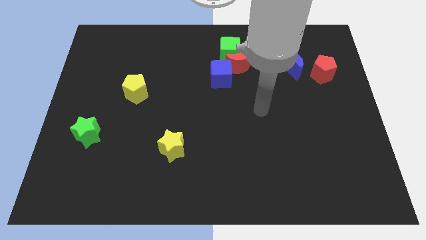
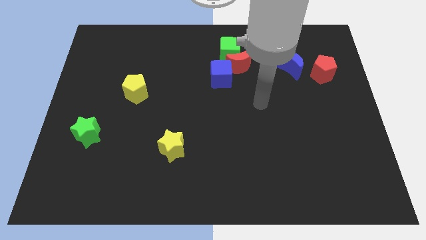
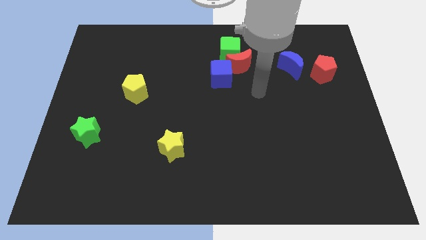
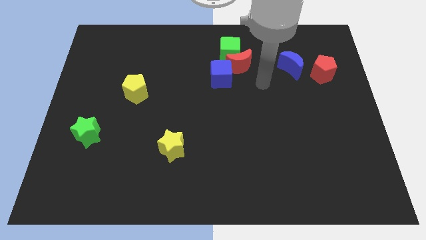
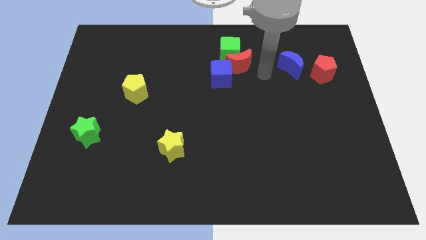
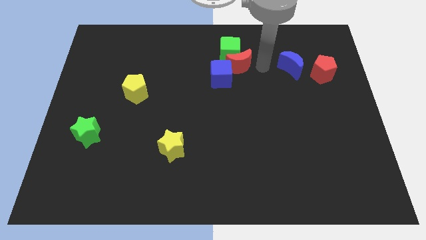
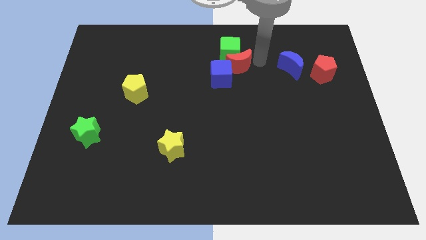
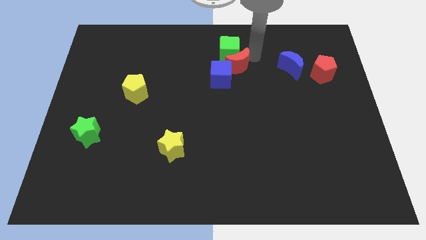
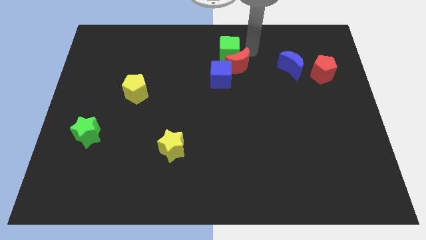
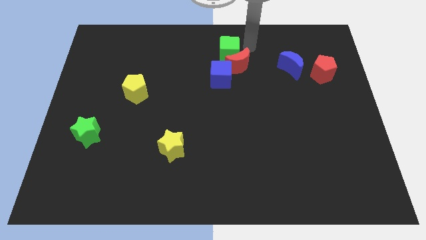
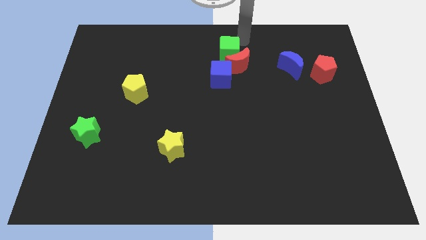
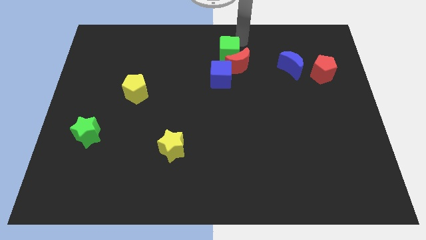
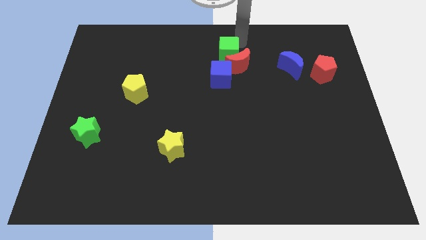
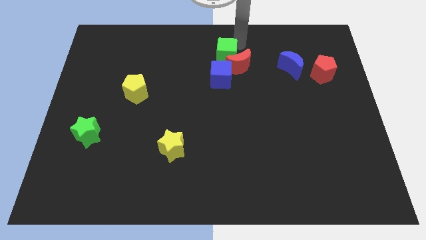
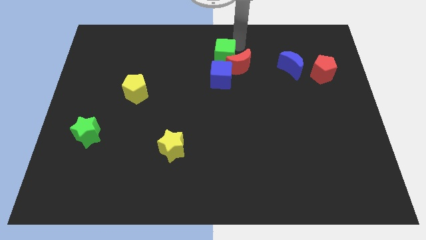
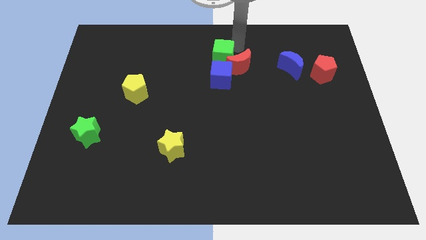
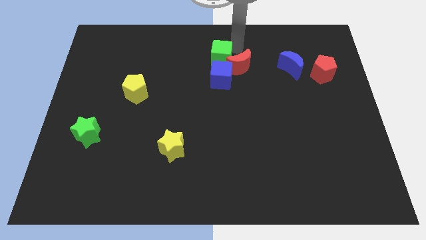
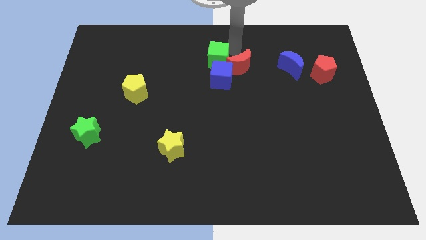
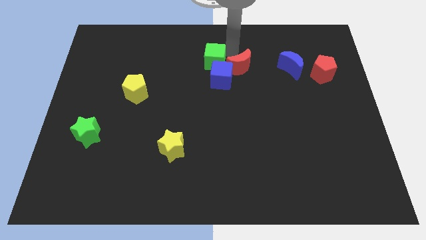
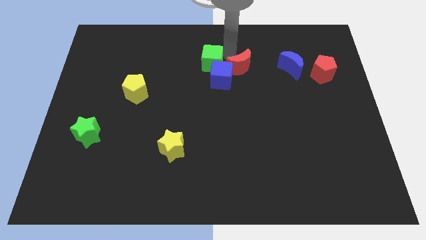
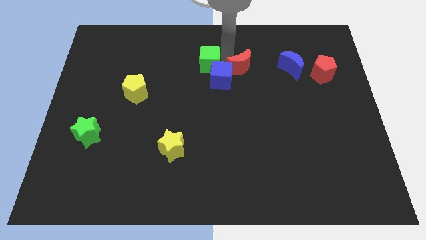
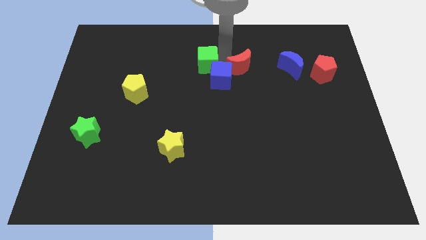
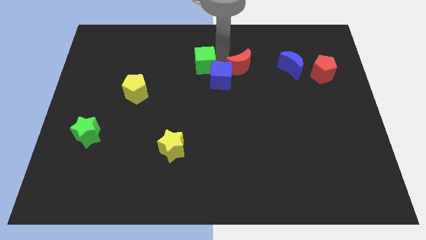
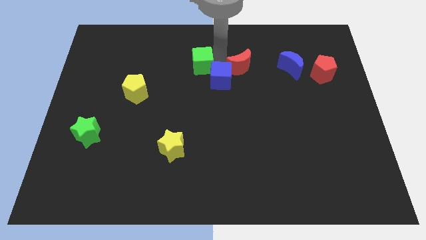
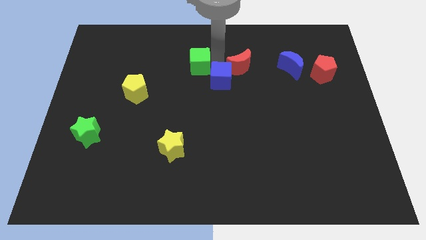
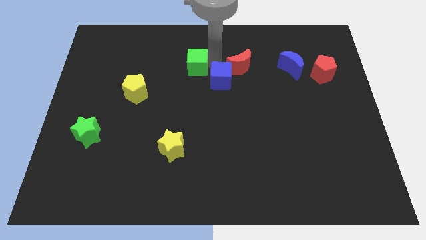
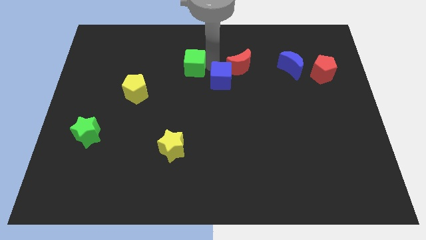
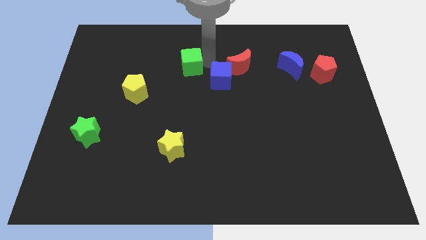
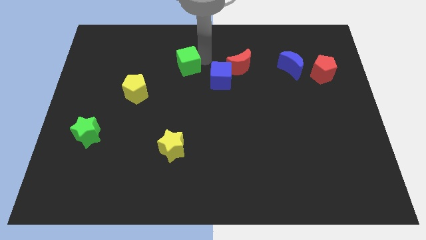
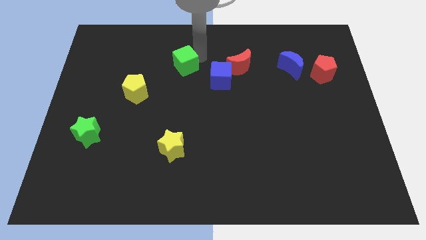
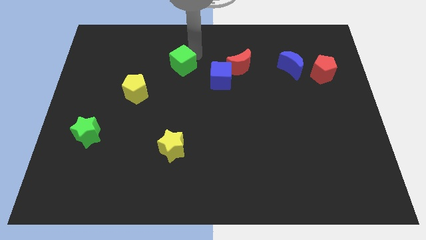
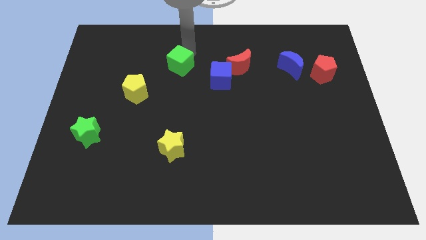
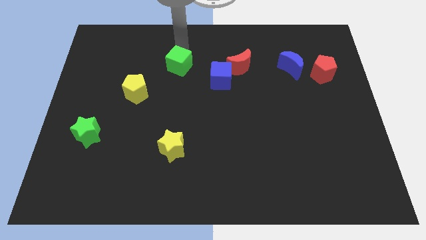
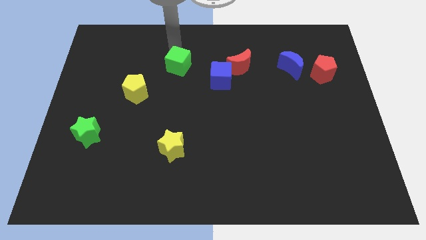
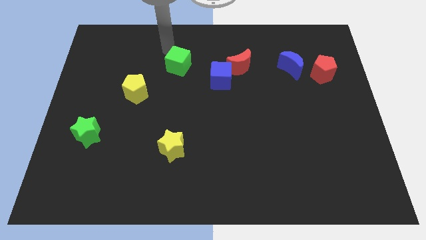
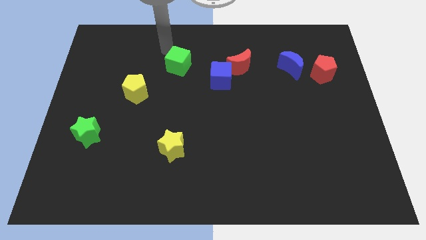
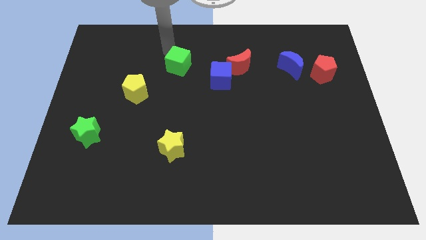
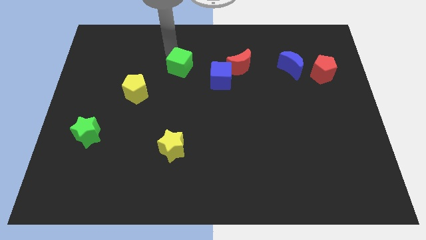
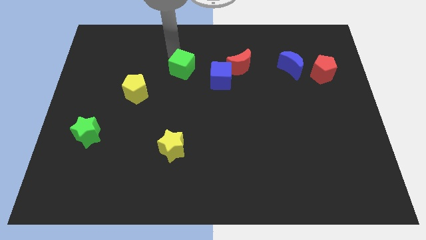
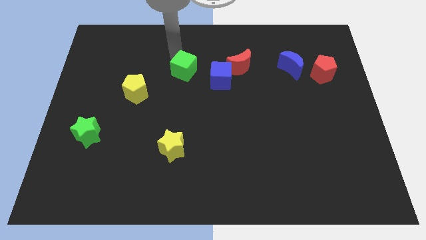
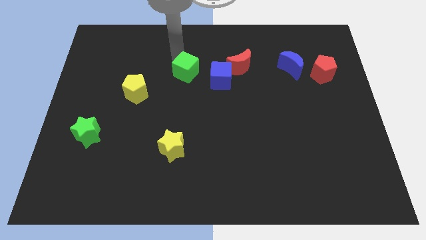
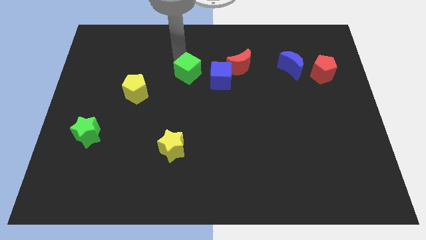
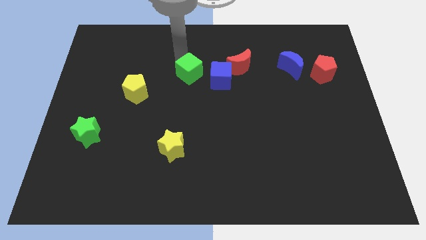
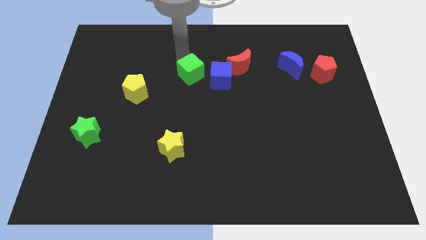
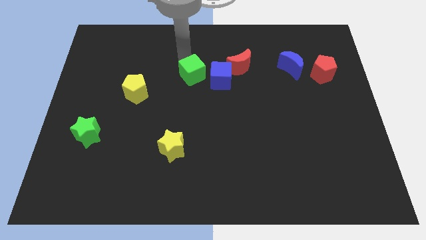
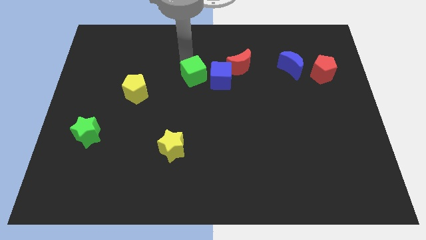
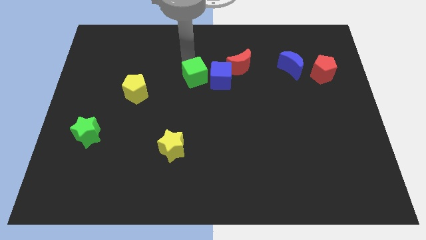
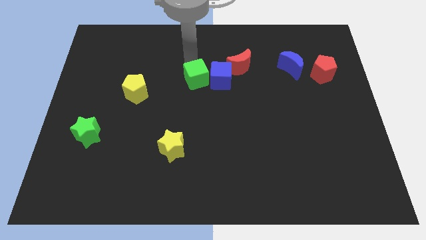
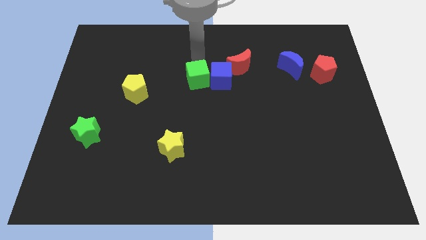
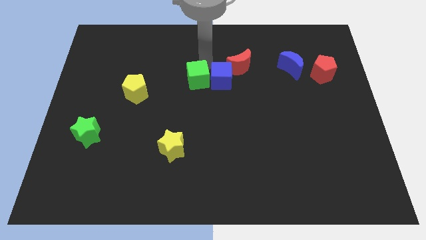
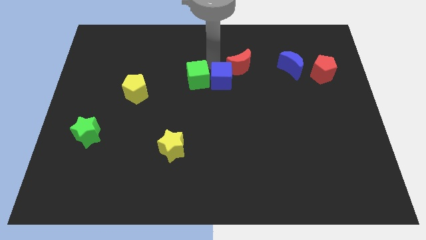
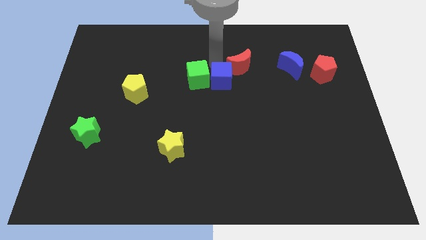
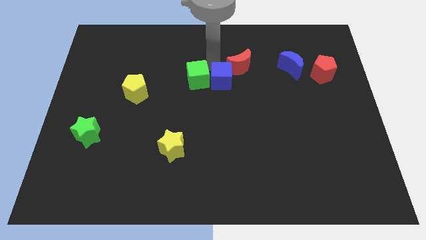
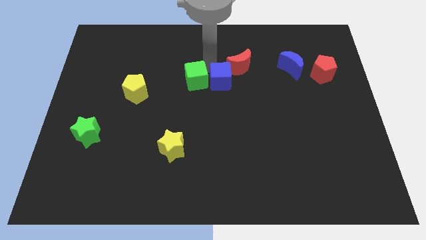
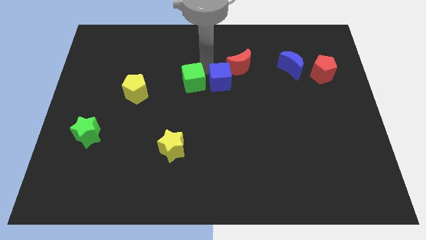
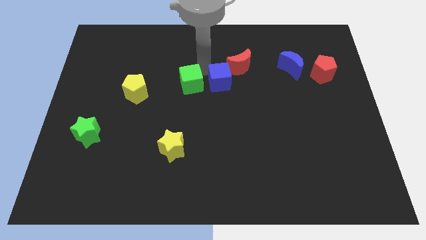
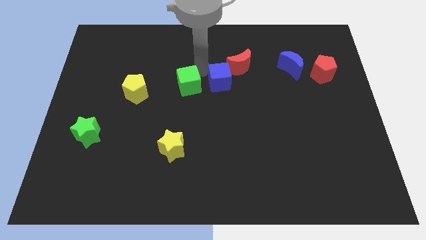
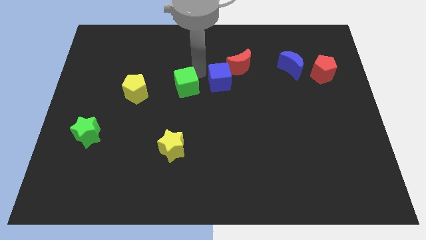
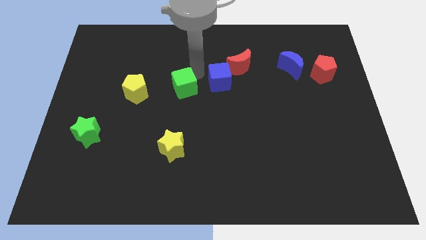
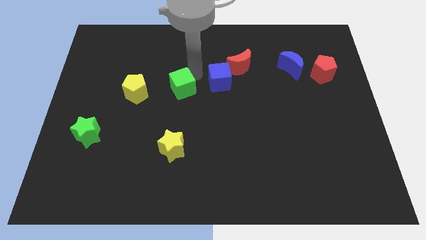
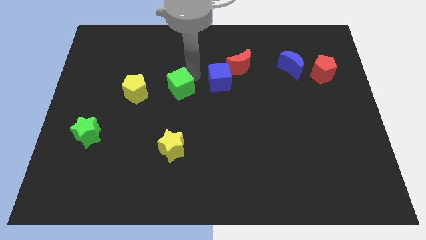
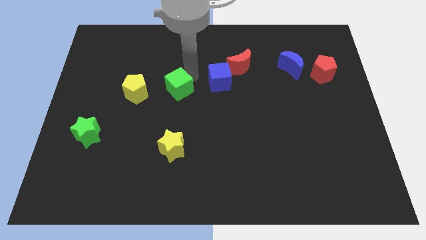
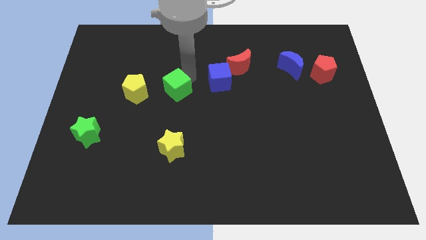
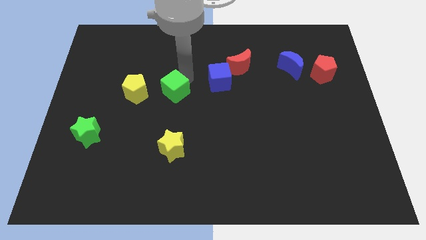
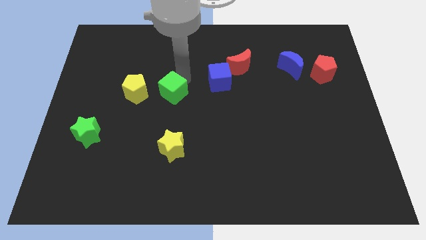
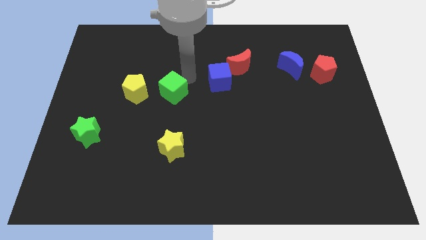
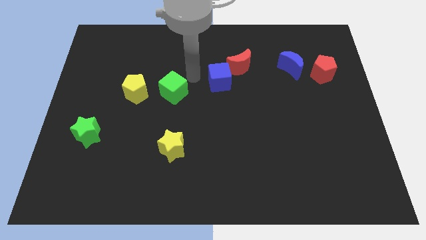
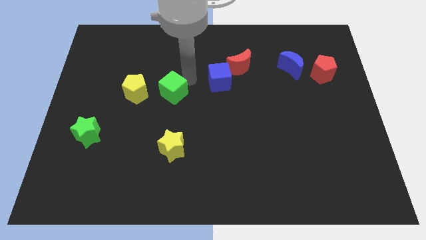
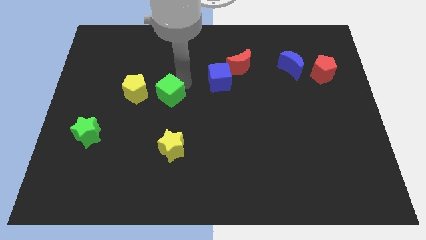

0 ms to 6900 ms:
slide the green cube diagonally downwards and to the left

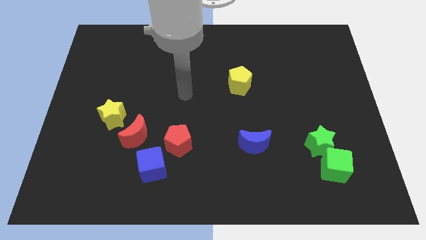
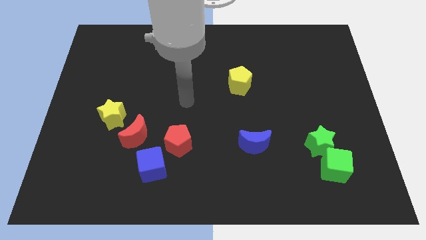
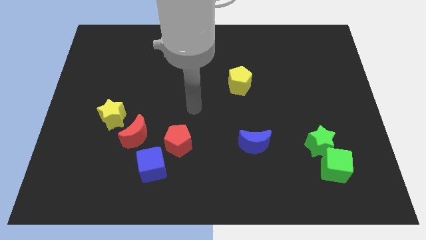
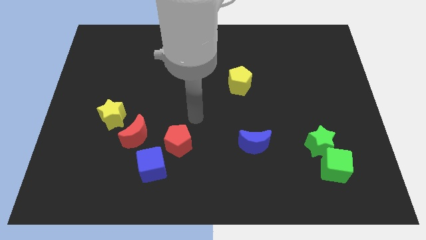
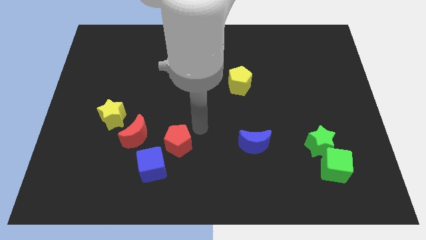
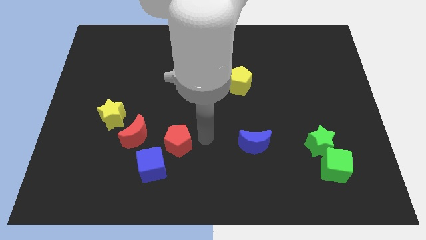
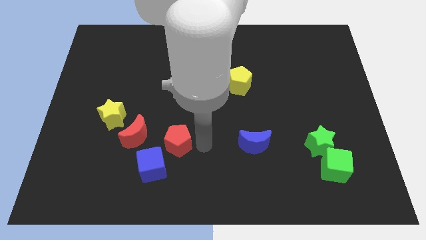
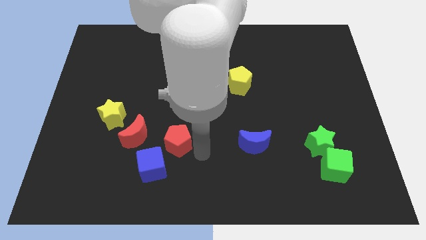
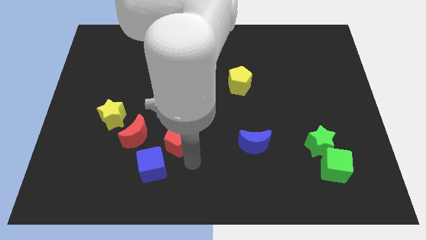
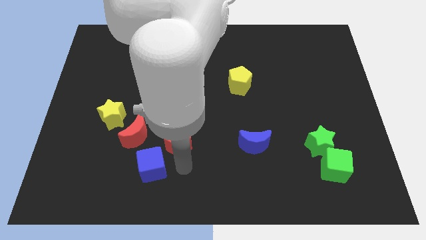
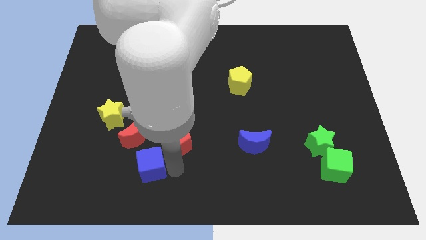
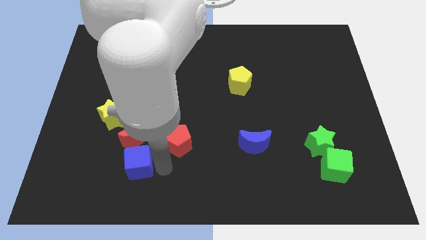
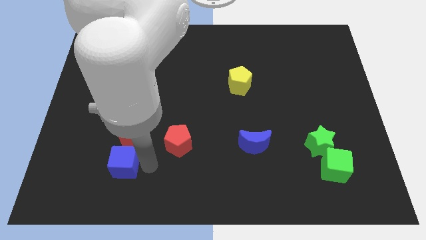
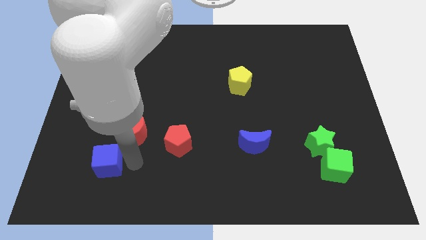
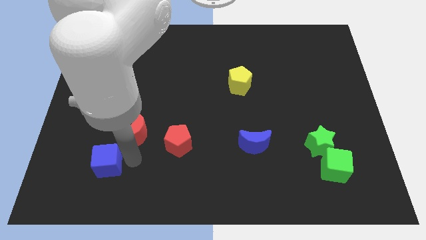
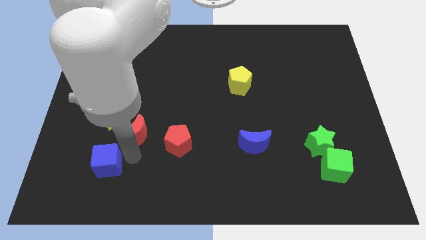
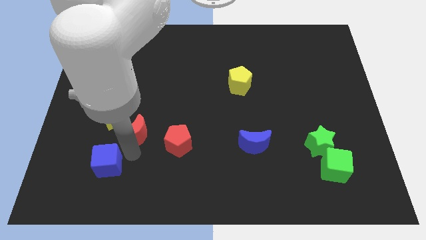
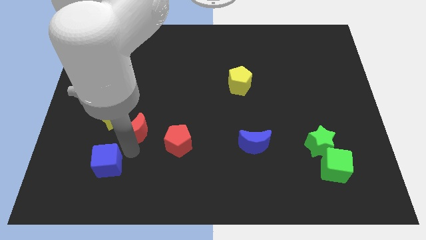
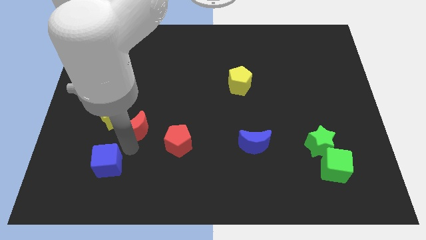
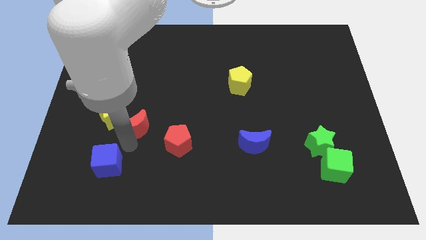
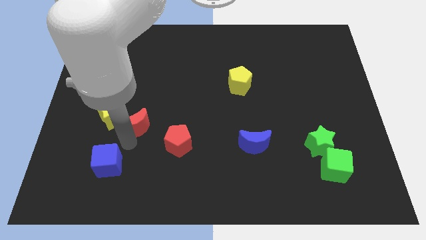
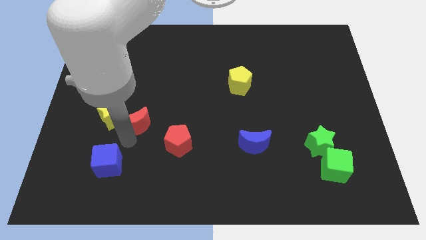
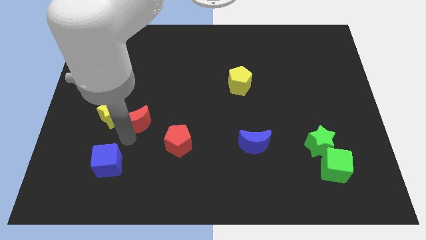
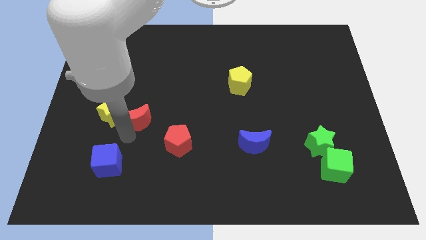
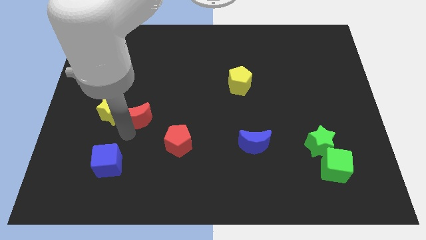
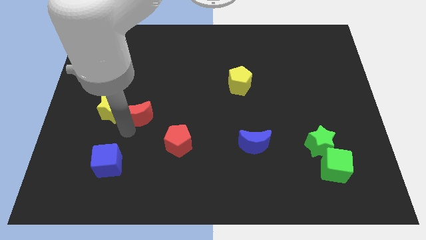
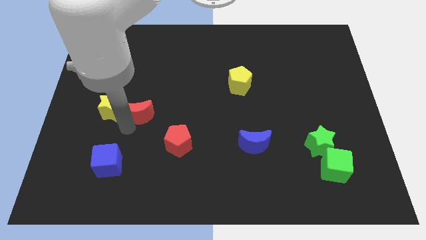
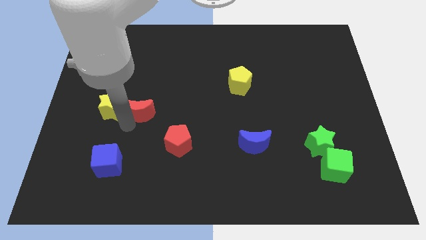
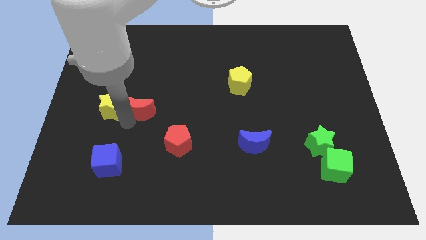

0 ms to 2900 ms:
slightly move the red moon upwards
